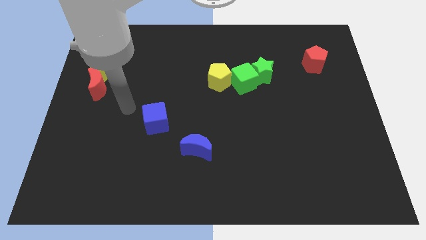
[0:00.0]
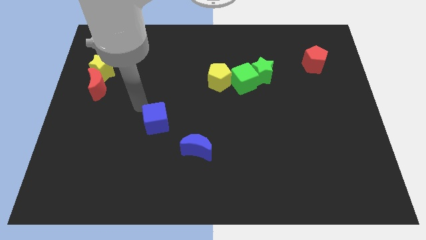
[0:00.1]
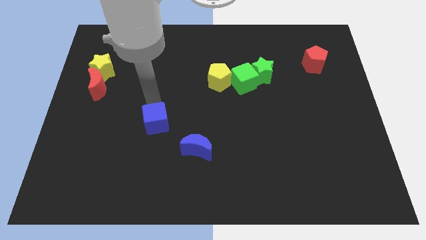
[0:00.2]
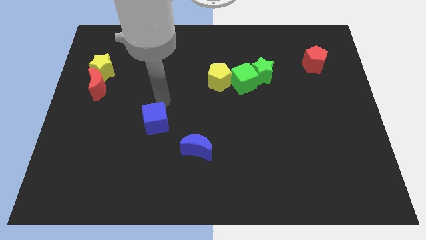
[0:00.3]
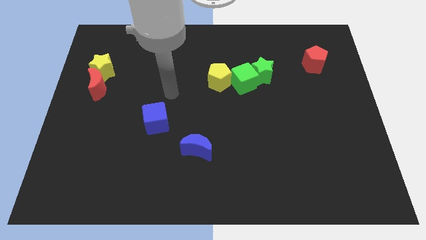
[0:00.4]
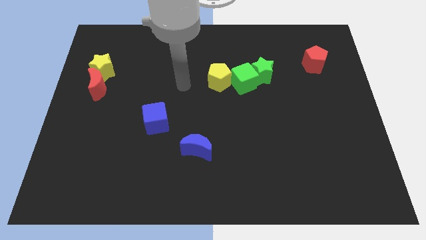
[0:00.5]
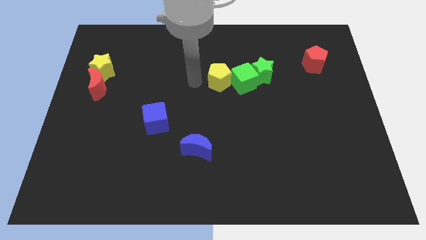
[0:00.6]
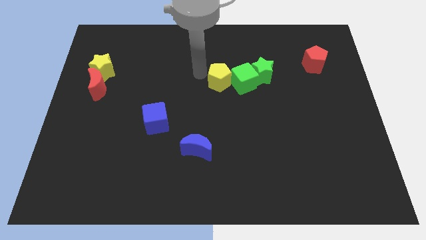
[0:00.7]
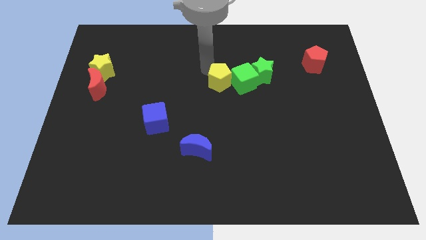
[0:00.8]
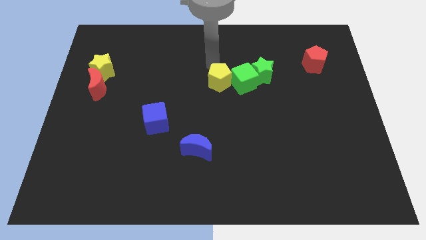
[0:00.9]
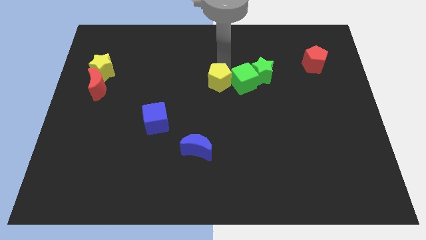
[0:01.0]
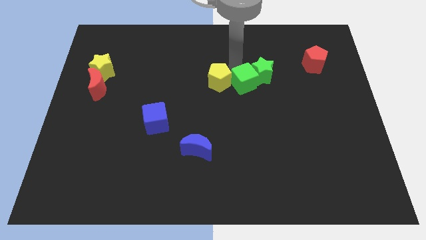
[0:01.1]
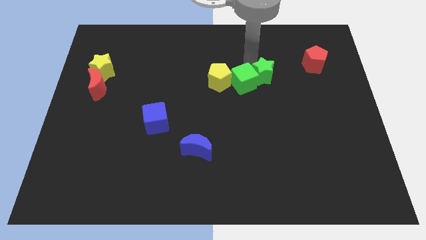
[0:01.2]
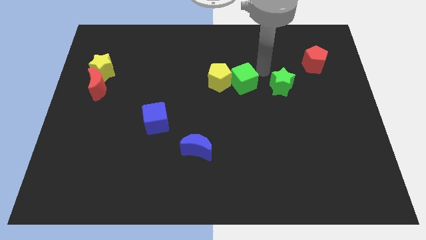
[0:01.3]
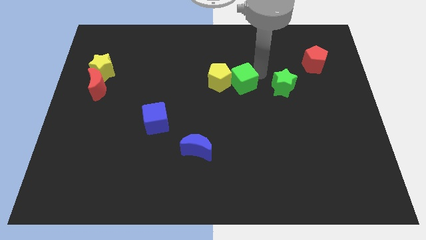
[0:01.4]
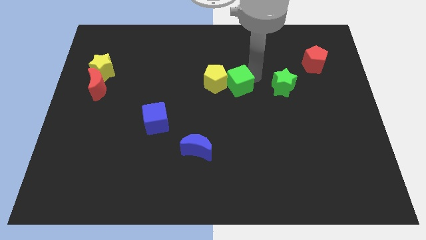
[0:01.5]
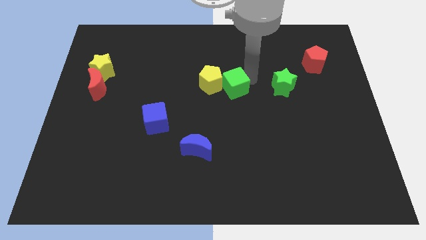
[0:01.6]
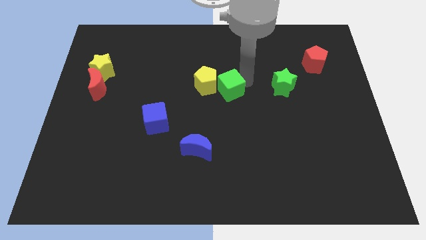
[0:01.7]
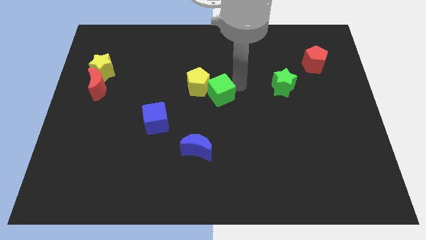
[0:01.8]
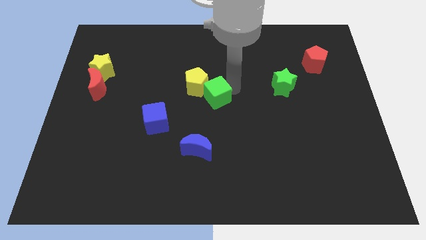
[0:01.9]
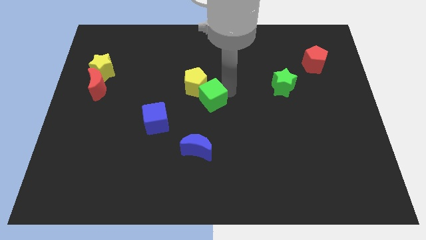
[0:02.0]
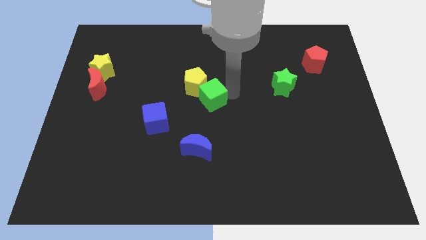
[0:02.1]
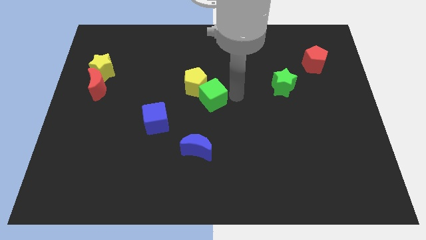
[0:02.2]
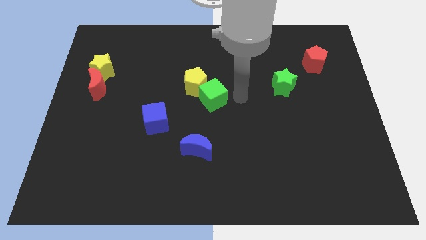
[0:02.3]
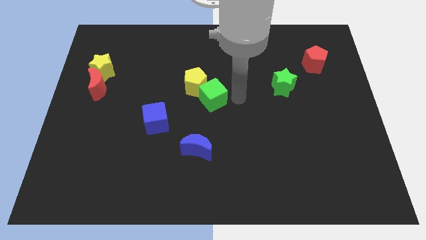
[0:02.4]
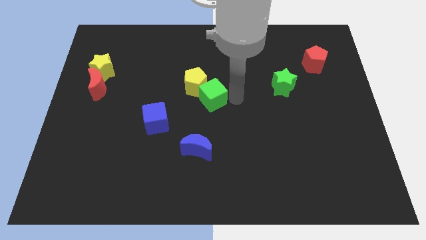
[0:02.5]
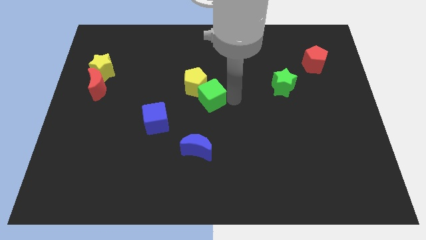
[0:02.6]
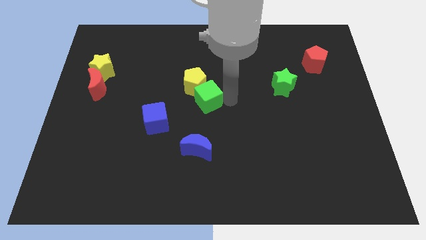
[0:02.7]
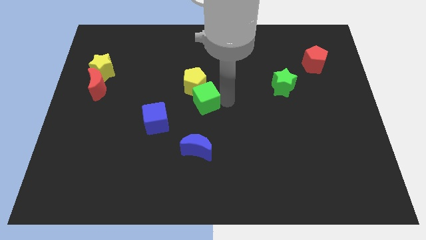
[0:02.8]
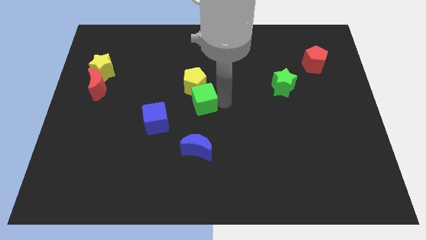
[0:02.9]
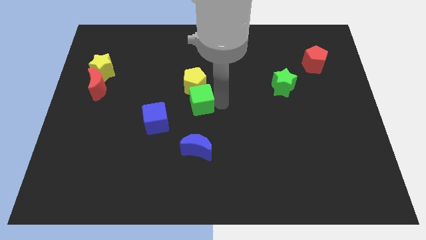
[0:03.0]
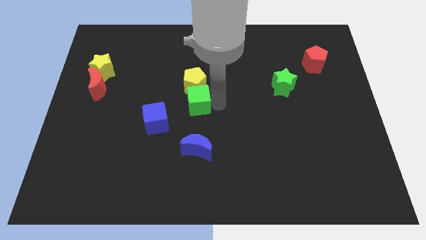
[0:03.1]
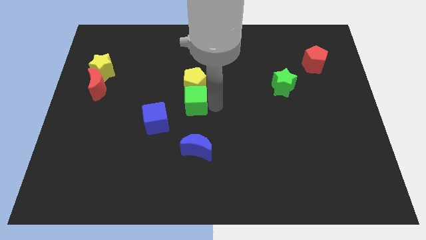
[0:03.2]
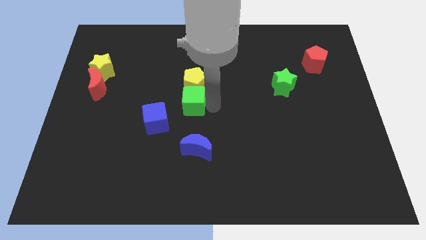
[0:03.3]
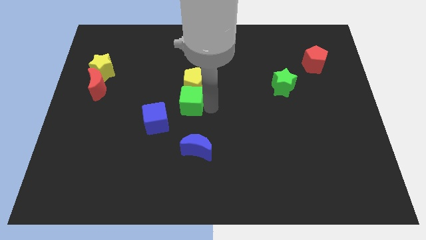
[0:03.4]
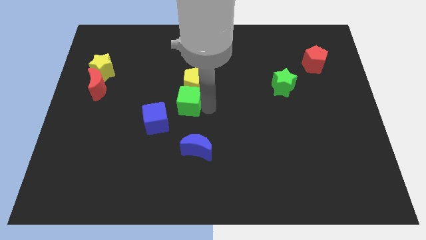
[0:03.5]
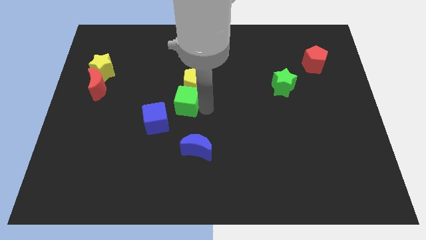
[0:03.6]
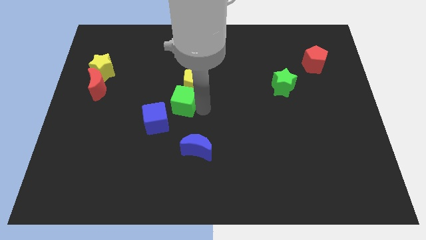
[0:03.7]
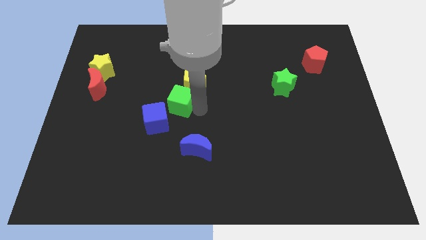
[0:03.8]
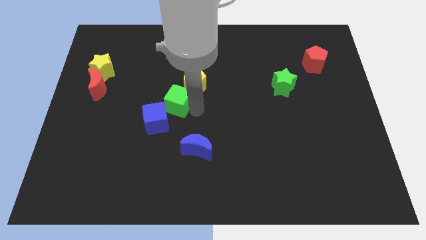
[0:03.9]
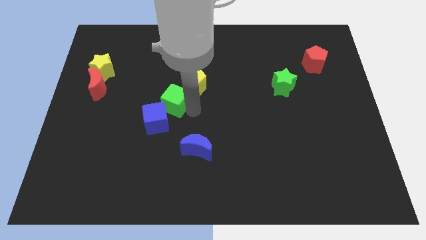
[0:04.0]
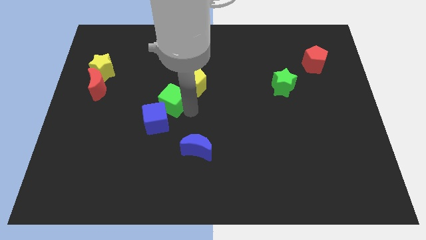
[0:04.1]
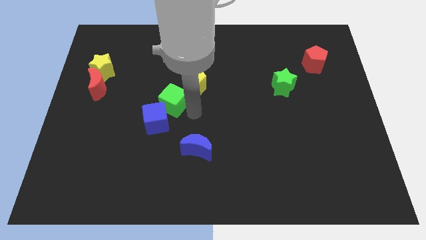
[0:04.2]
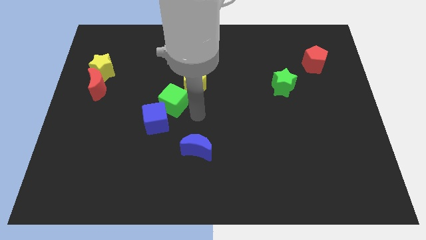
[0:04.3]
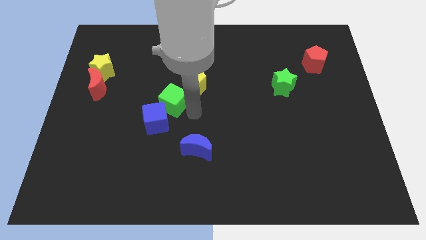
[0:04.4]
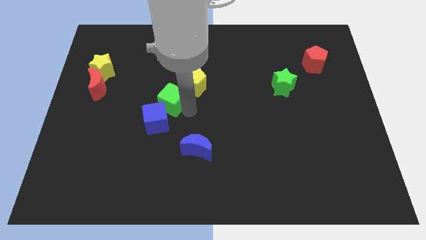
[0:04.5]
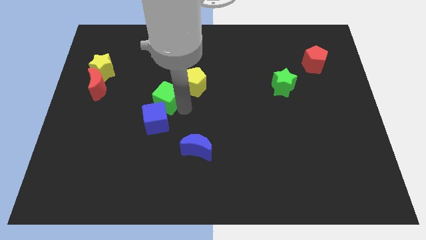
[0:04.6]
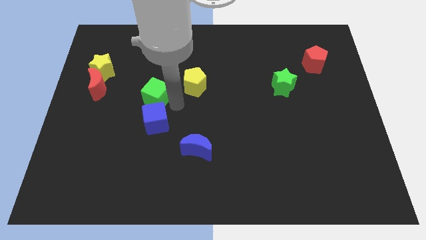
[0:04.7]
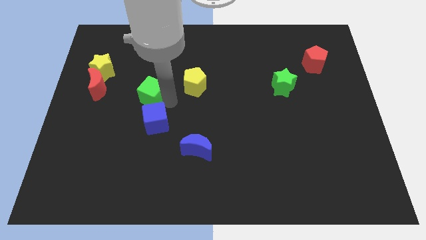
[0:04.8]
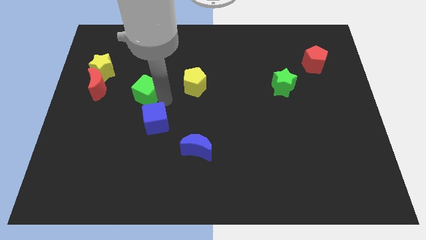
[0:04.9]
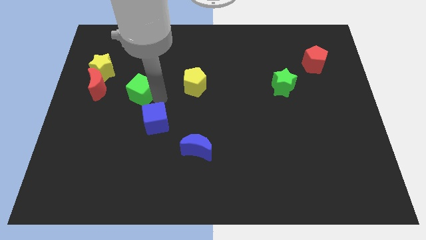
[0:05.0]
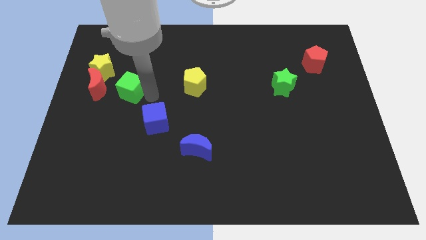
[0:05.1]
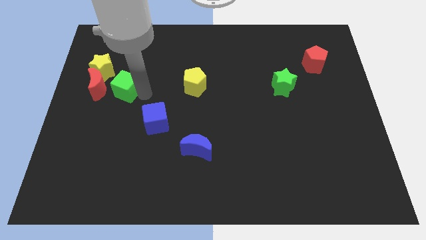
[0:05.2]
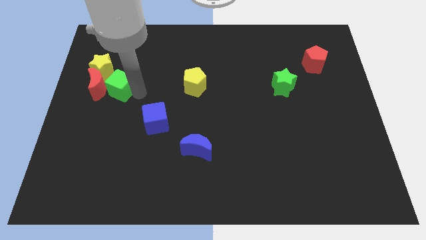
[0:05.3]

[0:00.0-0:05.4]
slide the green cube to the red moon

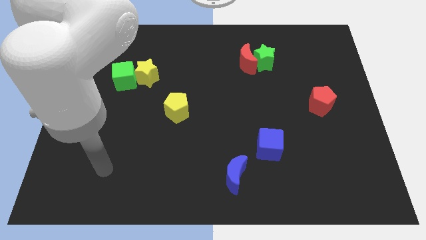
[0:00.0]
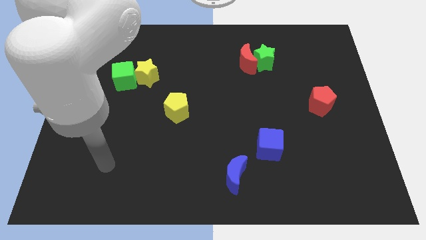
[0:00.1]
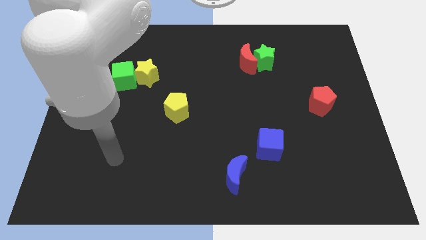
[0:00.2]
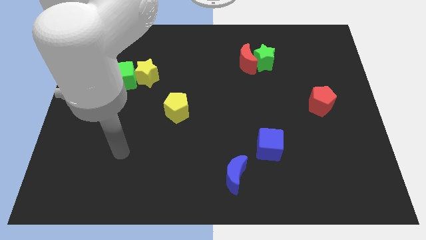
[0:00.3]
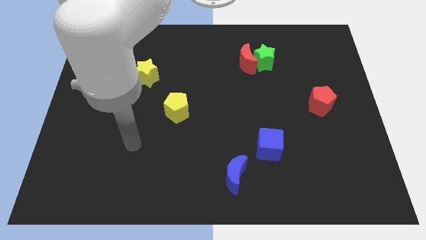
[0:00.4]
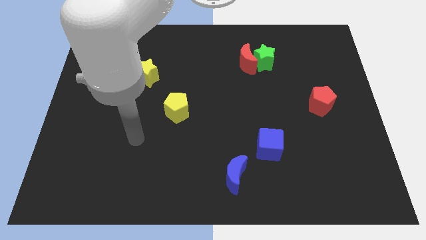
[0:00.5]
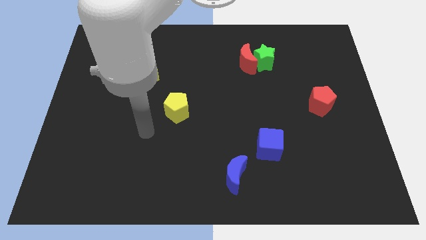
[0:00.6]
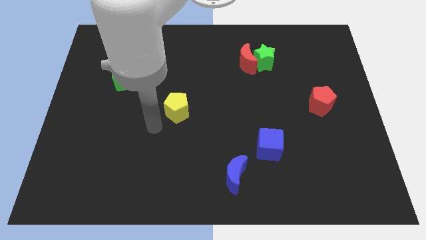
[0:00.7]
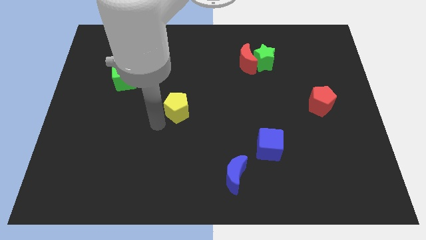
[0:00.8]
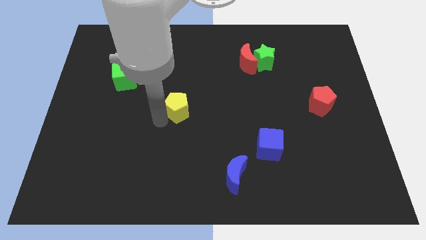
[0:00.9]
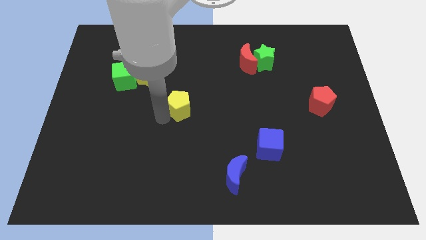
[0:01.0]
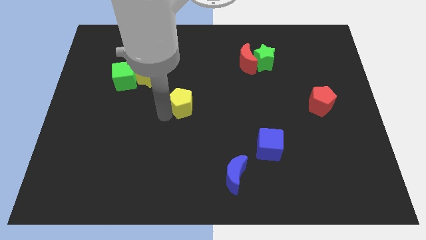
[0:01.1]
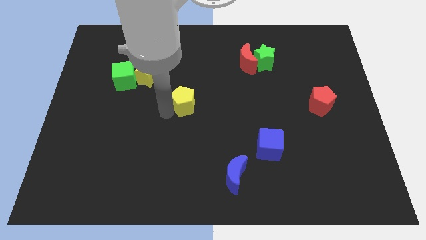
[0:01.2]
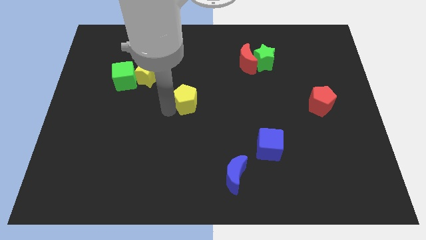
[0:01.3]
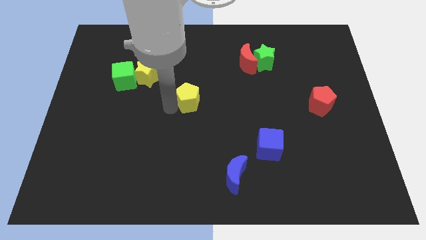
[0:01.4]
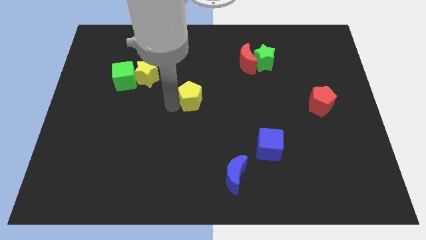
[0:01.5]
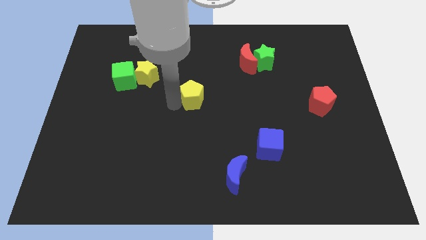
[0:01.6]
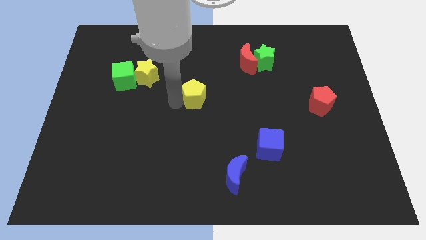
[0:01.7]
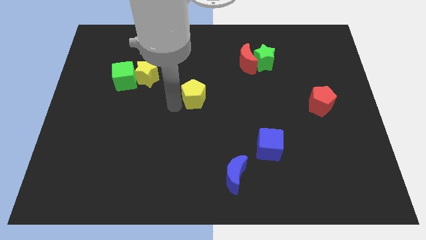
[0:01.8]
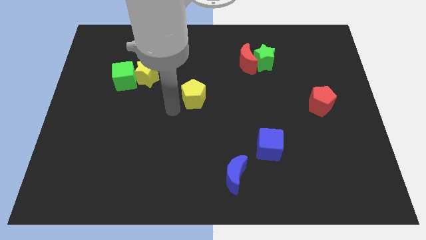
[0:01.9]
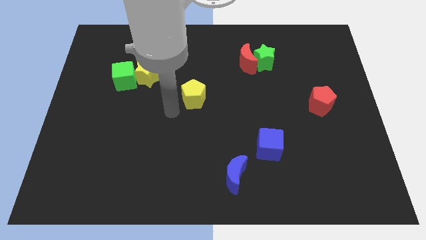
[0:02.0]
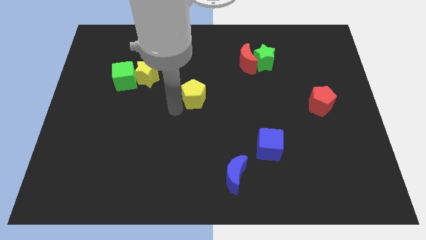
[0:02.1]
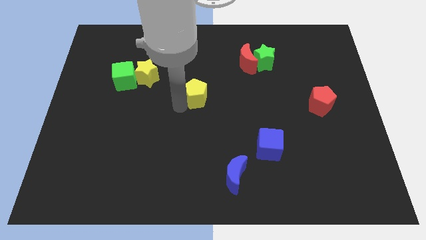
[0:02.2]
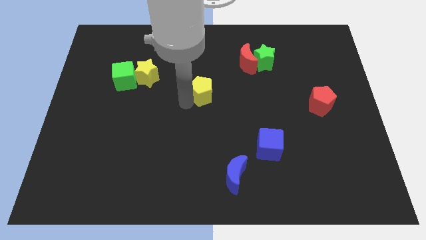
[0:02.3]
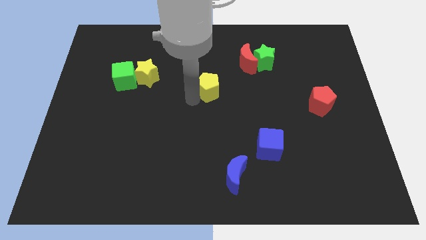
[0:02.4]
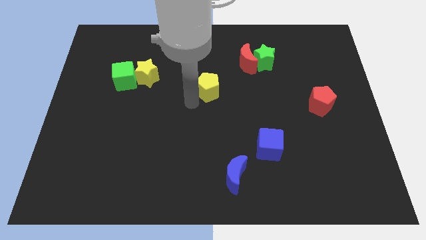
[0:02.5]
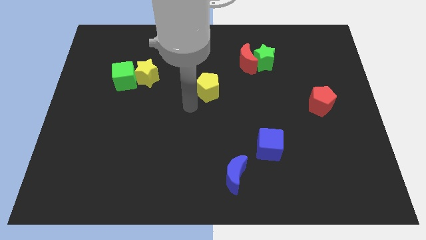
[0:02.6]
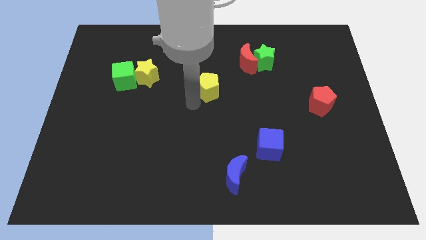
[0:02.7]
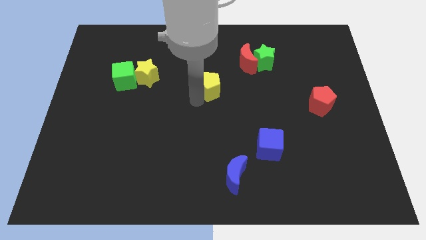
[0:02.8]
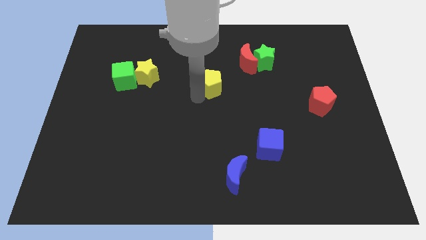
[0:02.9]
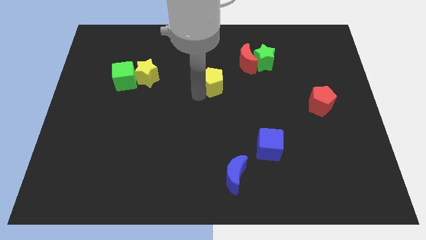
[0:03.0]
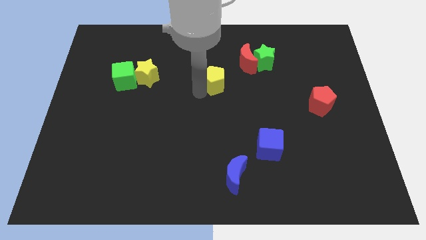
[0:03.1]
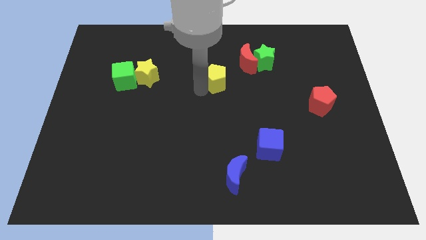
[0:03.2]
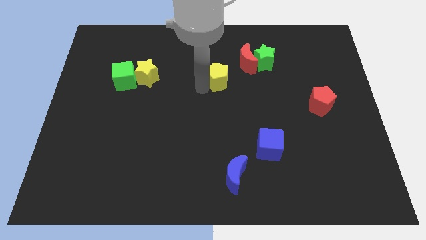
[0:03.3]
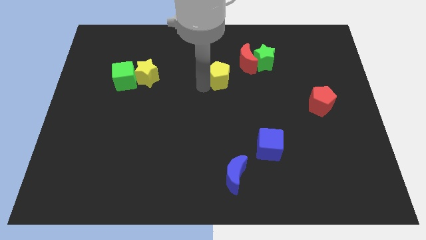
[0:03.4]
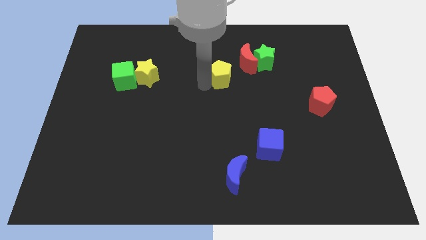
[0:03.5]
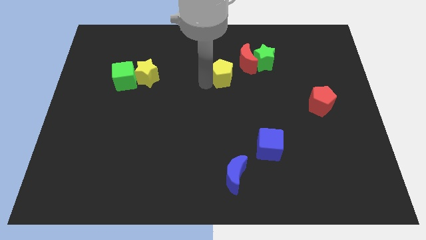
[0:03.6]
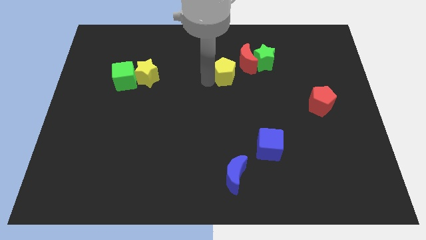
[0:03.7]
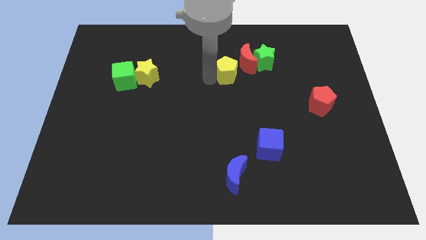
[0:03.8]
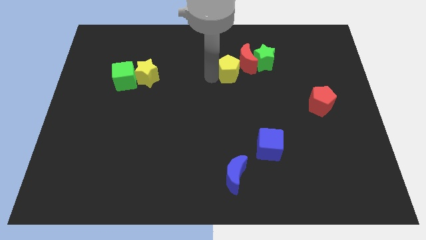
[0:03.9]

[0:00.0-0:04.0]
push the yellow pentagon towards the red moon
